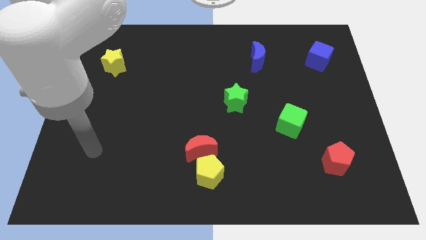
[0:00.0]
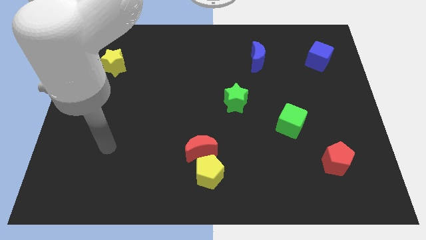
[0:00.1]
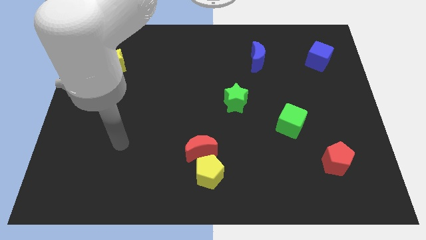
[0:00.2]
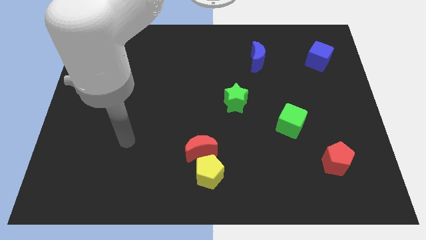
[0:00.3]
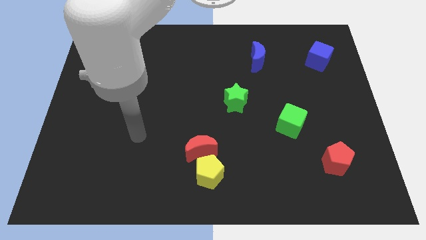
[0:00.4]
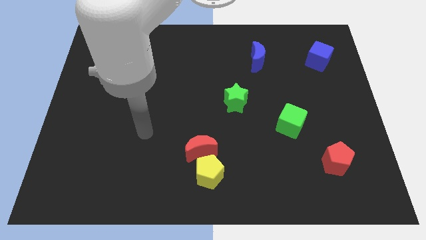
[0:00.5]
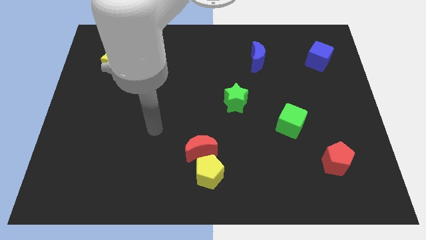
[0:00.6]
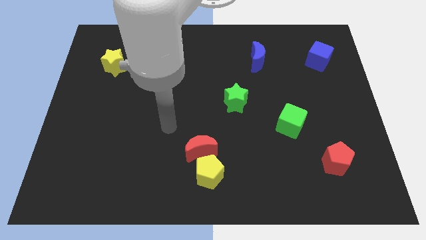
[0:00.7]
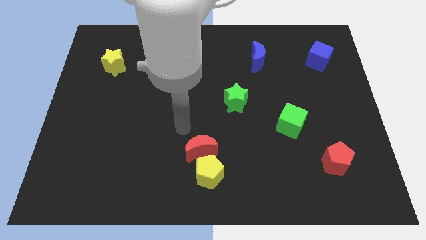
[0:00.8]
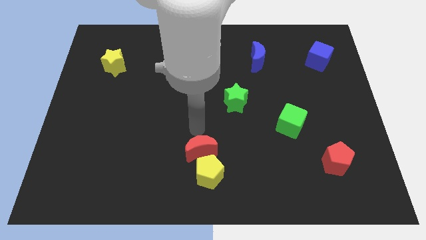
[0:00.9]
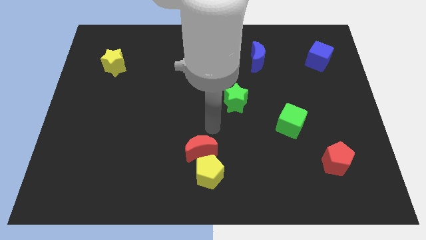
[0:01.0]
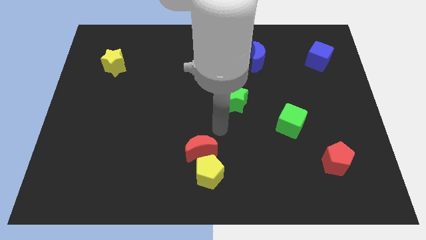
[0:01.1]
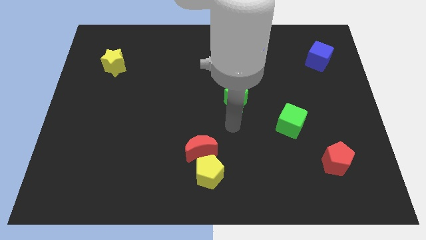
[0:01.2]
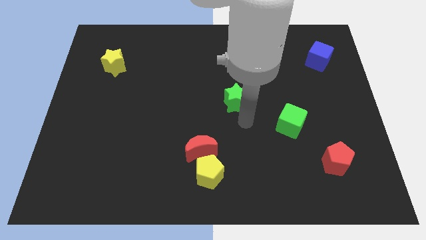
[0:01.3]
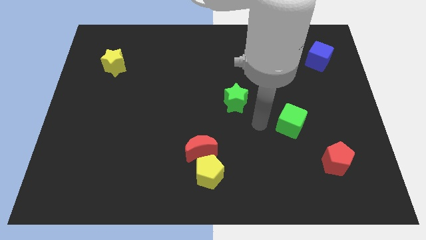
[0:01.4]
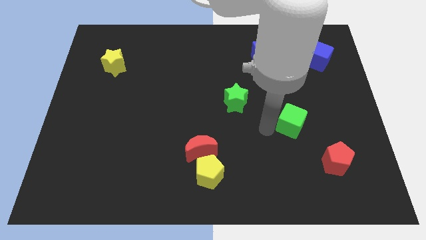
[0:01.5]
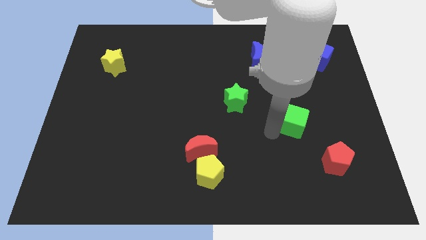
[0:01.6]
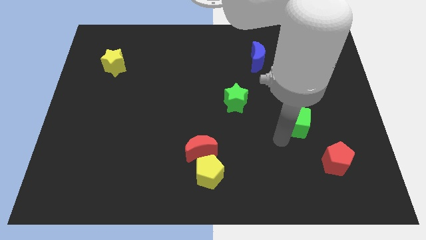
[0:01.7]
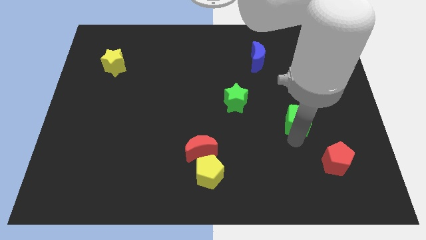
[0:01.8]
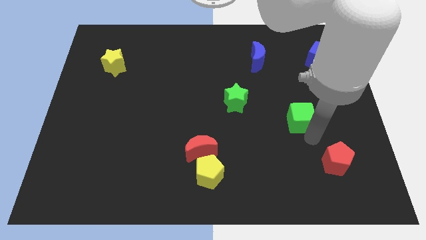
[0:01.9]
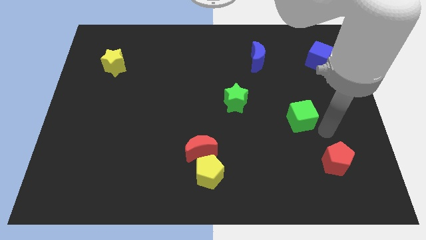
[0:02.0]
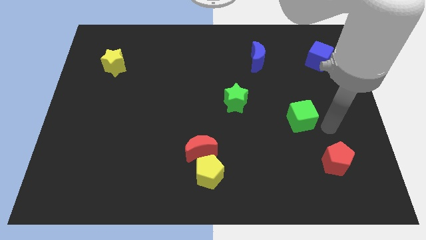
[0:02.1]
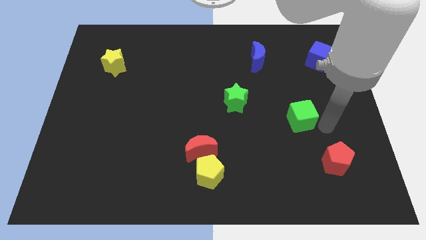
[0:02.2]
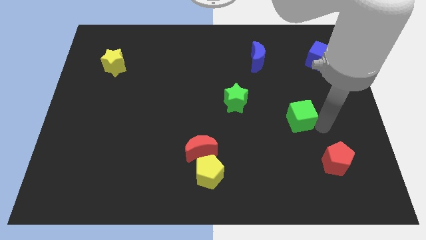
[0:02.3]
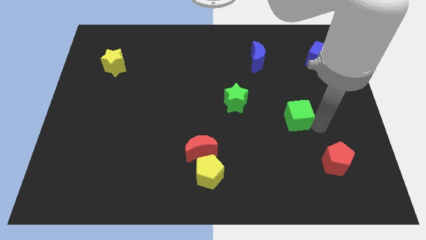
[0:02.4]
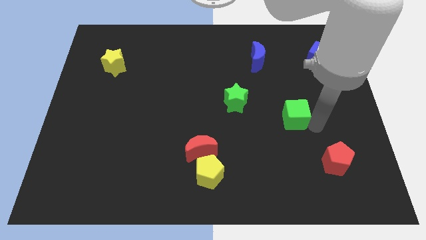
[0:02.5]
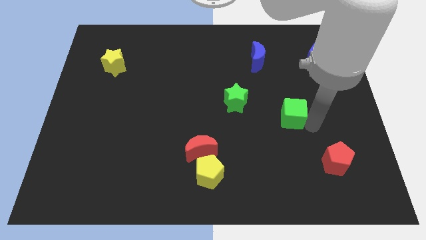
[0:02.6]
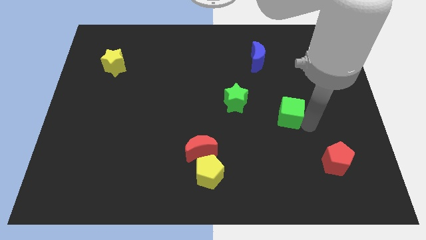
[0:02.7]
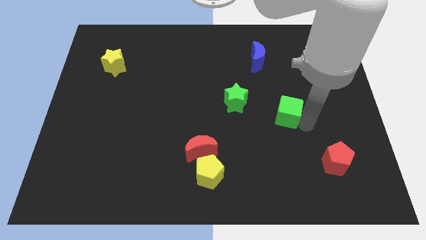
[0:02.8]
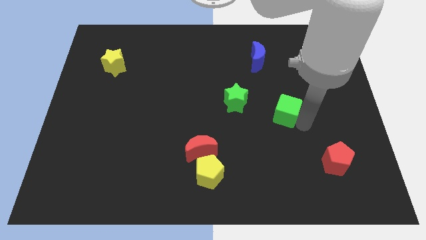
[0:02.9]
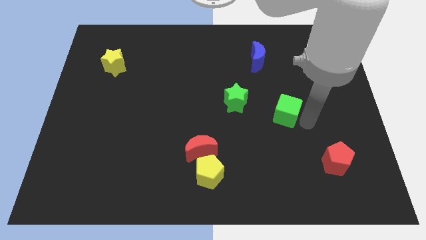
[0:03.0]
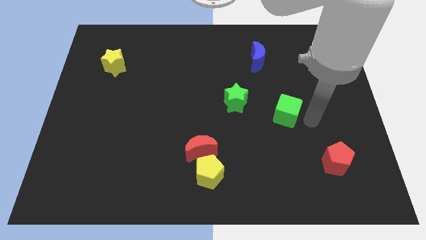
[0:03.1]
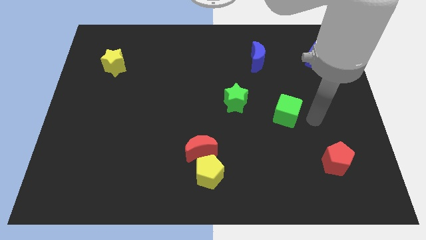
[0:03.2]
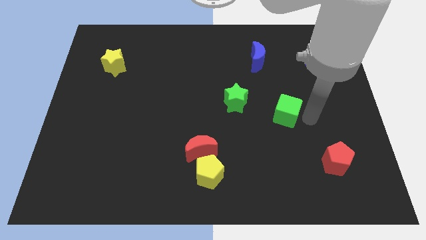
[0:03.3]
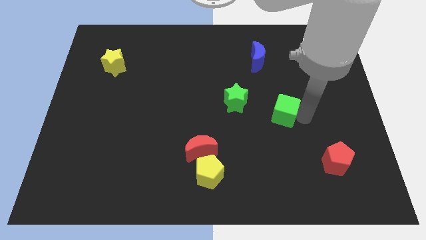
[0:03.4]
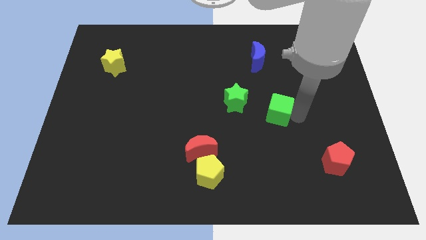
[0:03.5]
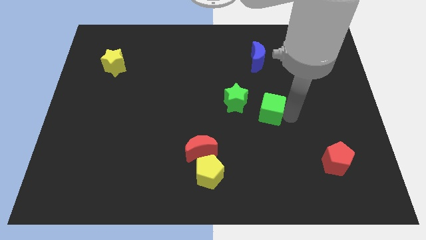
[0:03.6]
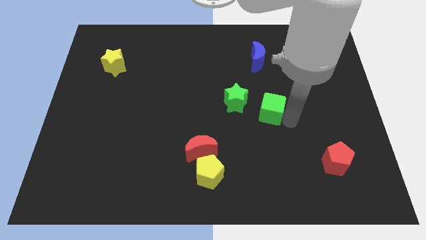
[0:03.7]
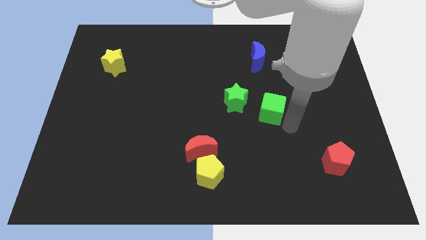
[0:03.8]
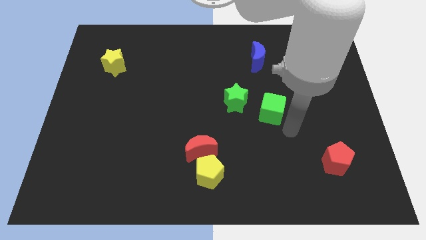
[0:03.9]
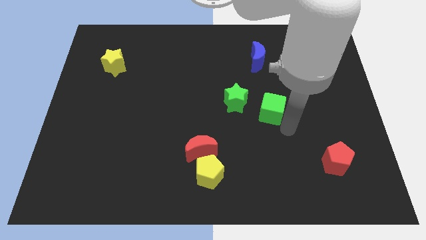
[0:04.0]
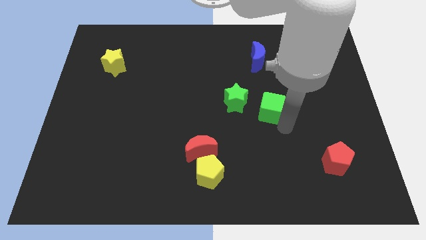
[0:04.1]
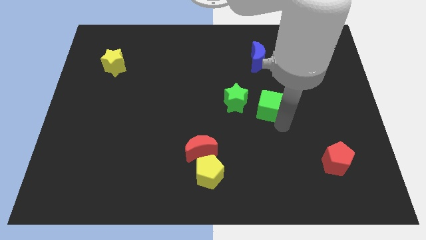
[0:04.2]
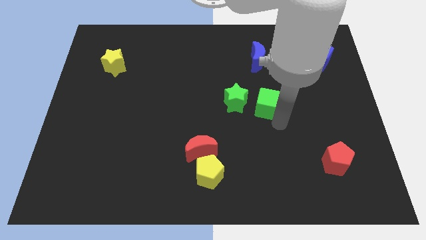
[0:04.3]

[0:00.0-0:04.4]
slightly slide the green cube up and then left

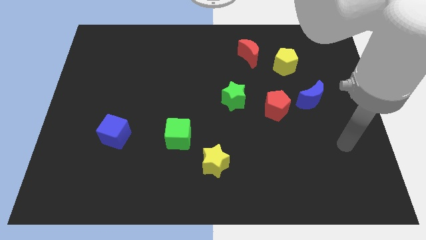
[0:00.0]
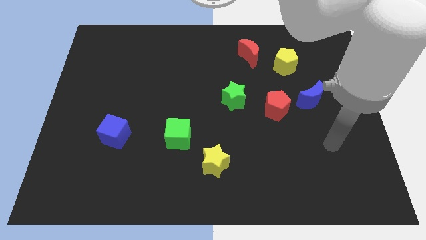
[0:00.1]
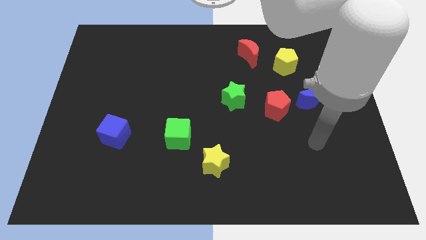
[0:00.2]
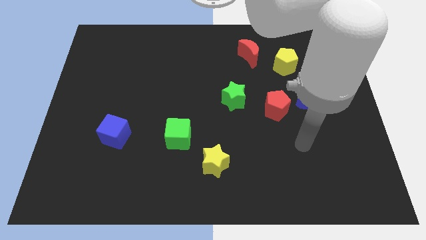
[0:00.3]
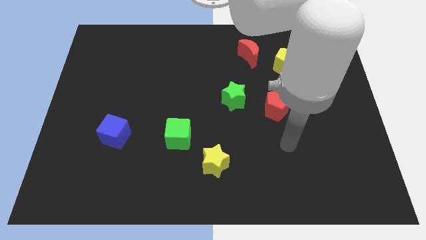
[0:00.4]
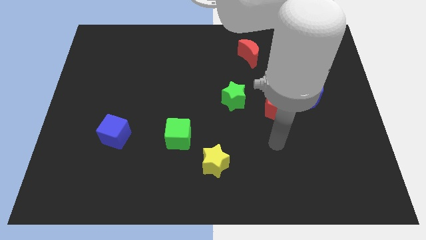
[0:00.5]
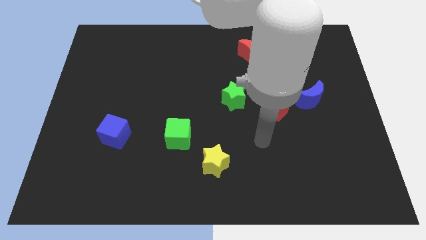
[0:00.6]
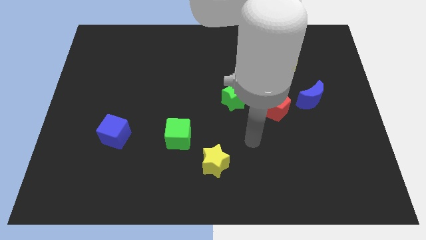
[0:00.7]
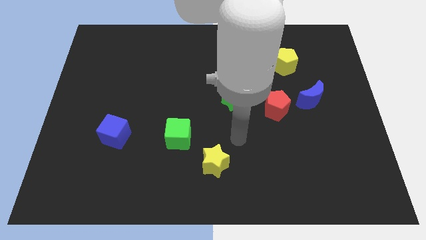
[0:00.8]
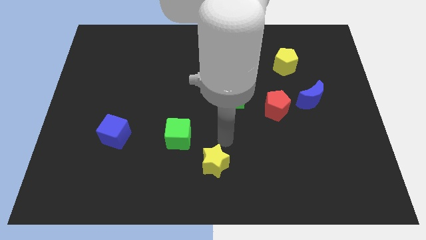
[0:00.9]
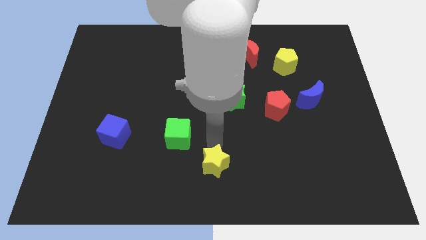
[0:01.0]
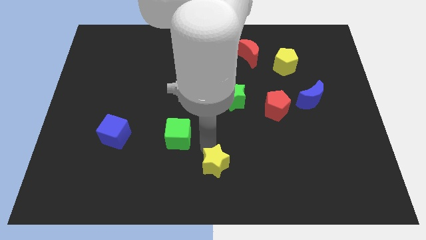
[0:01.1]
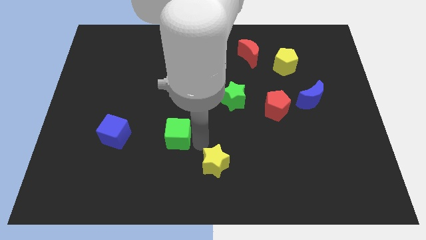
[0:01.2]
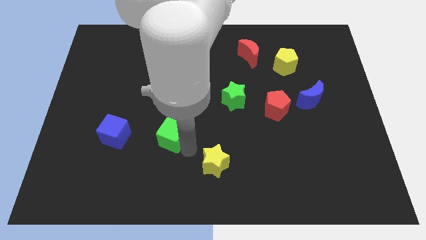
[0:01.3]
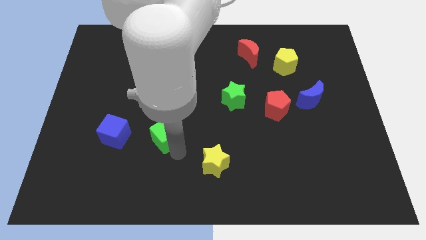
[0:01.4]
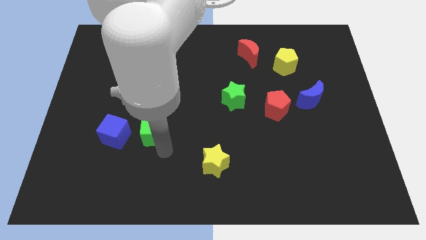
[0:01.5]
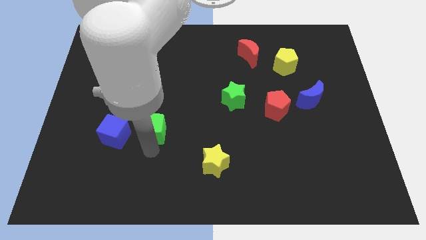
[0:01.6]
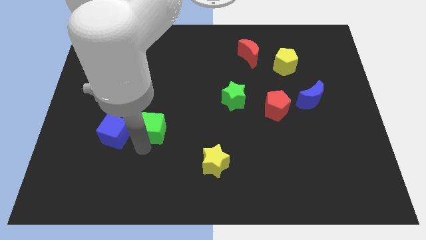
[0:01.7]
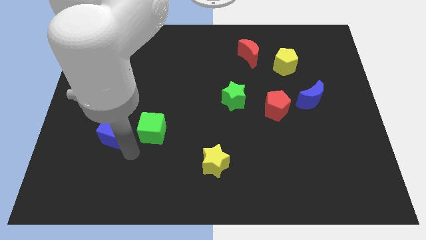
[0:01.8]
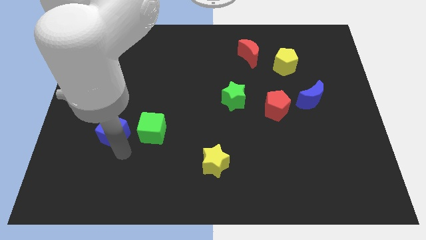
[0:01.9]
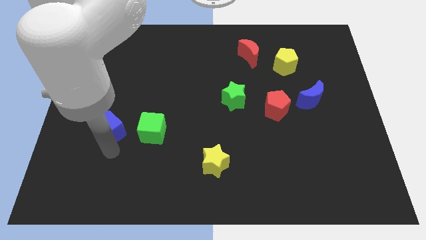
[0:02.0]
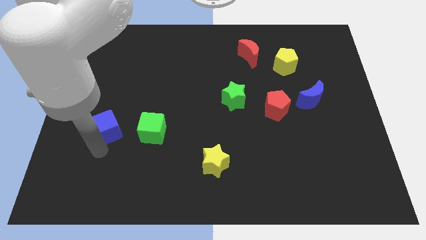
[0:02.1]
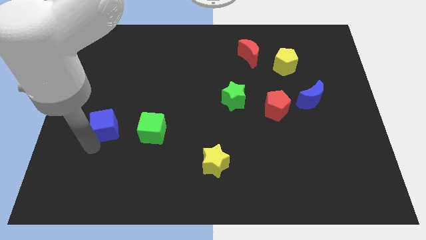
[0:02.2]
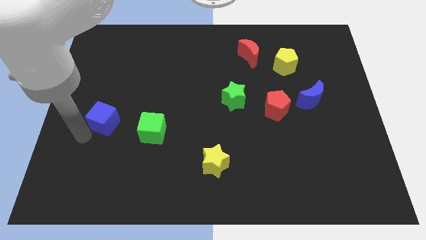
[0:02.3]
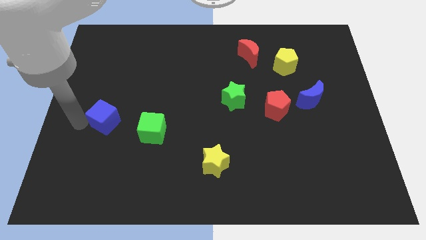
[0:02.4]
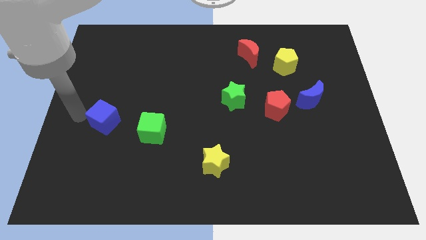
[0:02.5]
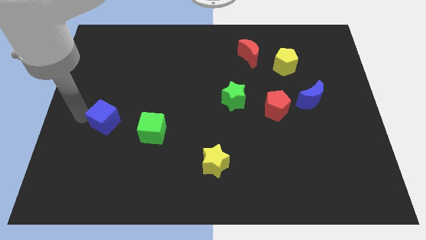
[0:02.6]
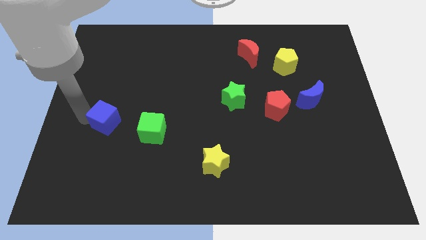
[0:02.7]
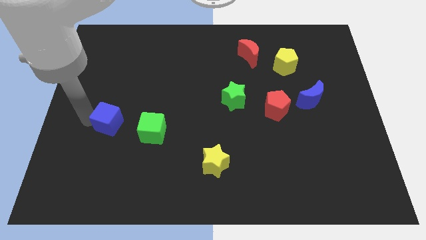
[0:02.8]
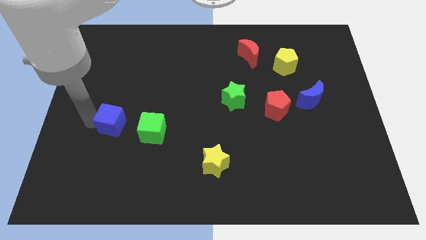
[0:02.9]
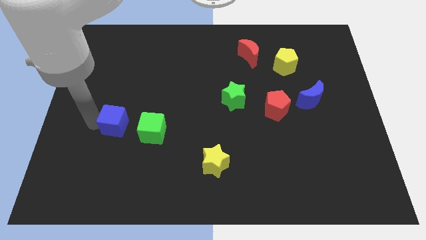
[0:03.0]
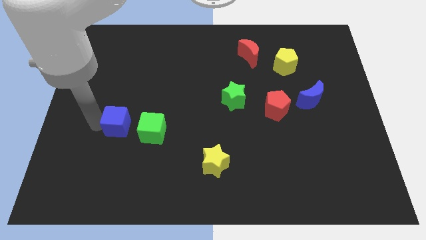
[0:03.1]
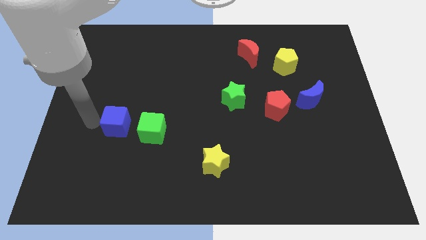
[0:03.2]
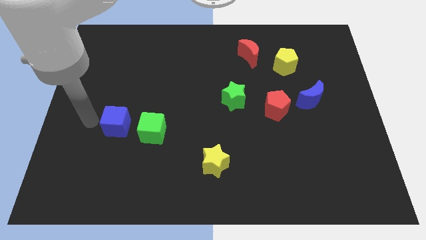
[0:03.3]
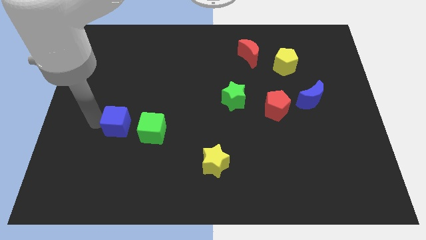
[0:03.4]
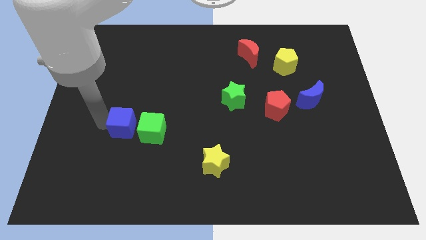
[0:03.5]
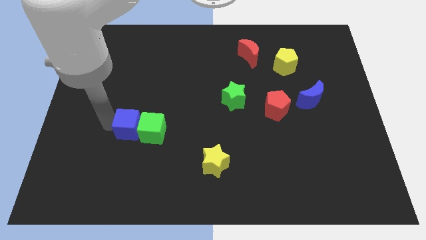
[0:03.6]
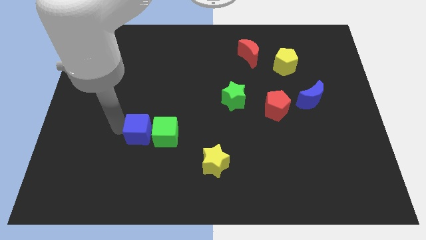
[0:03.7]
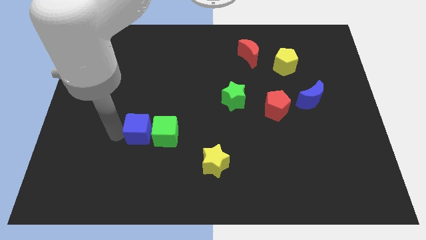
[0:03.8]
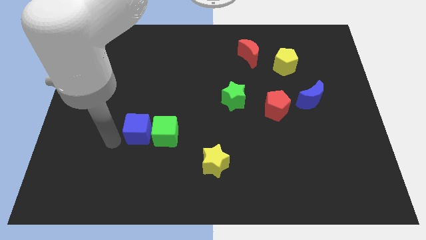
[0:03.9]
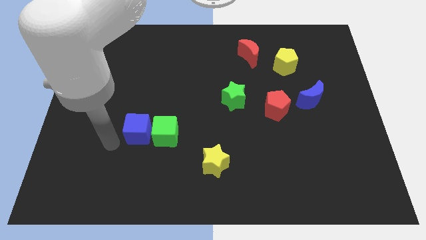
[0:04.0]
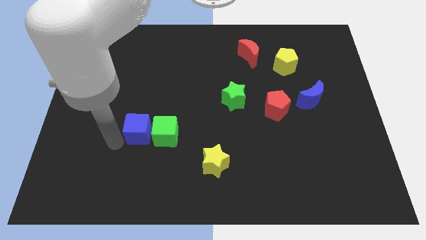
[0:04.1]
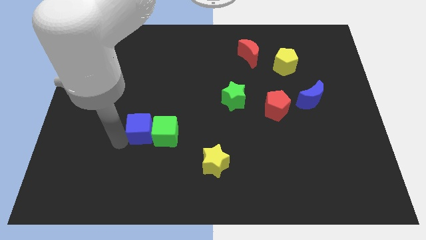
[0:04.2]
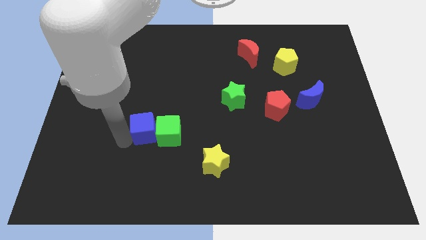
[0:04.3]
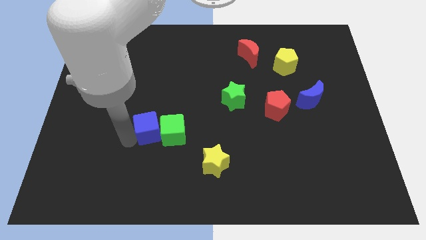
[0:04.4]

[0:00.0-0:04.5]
slightly move the blue cube right
